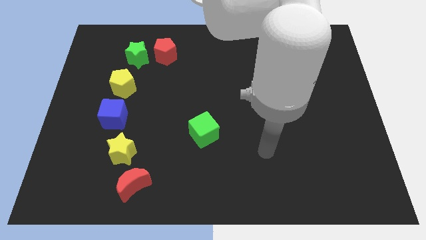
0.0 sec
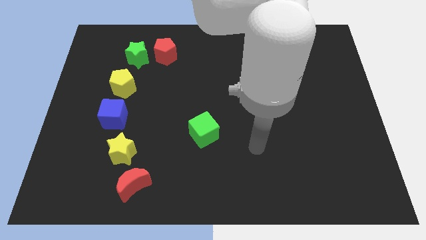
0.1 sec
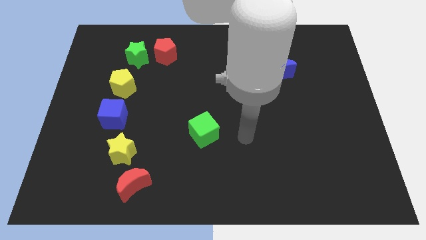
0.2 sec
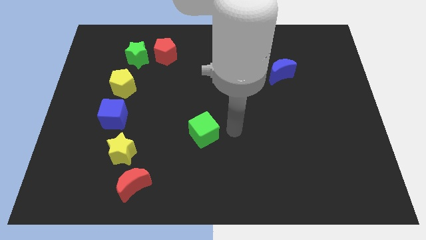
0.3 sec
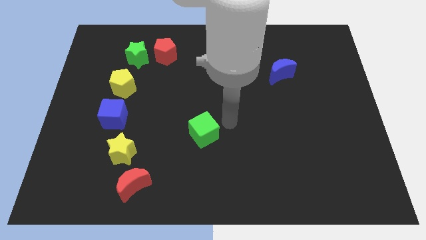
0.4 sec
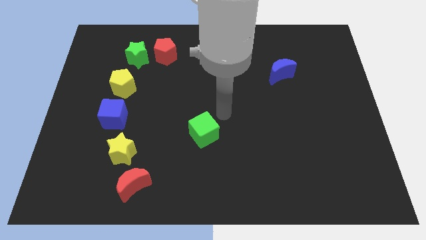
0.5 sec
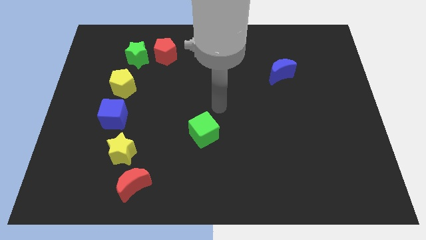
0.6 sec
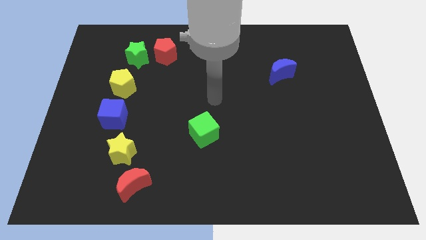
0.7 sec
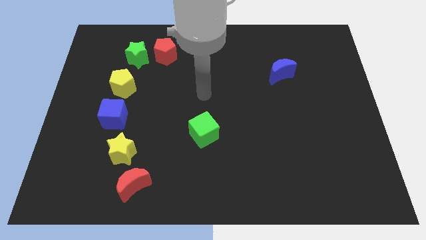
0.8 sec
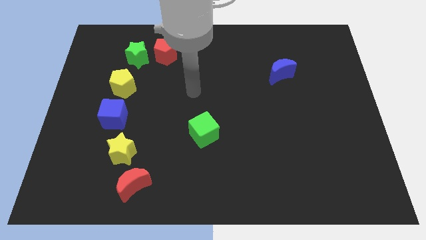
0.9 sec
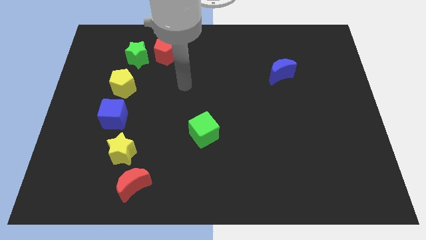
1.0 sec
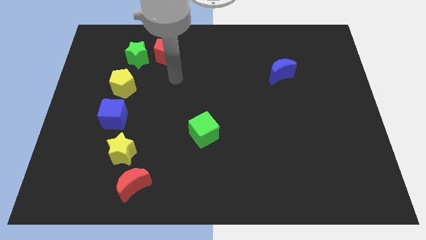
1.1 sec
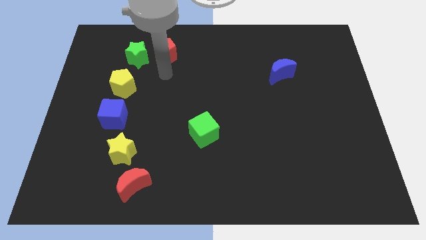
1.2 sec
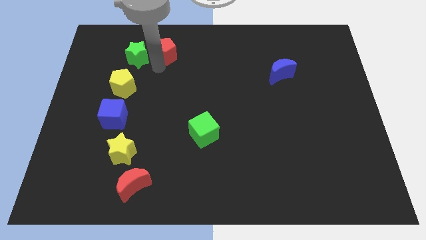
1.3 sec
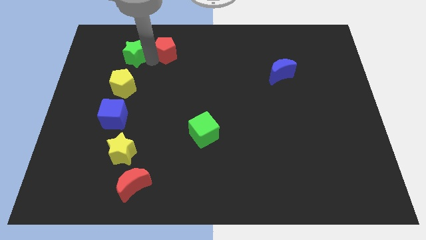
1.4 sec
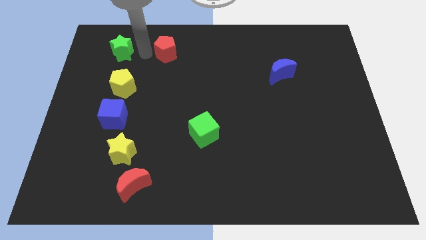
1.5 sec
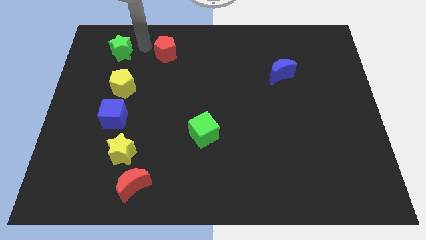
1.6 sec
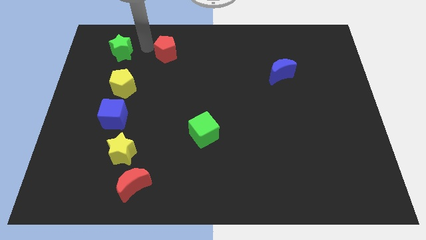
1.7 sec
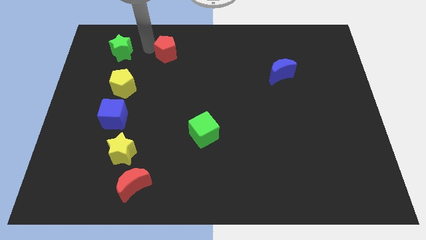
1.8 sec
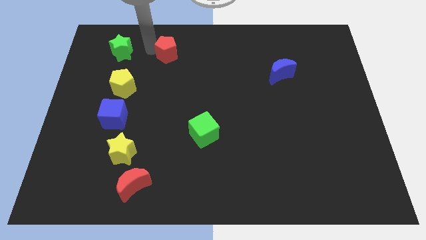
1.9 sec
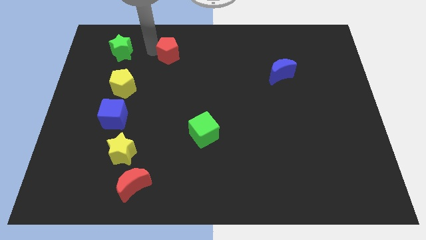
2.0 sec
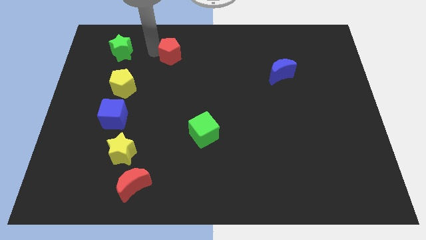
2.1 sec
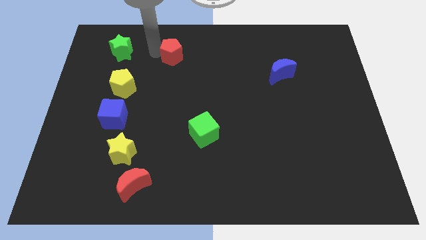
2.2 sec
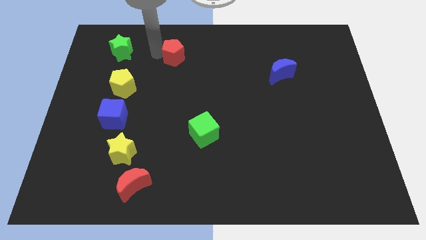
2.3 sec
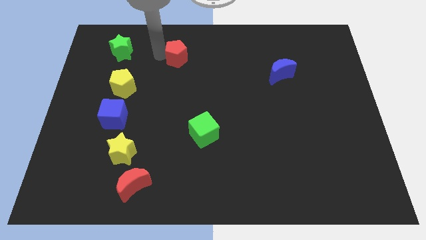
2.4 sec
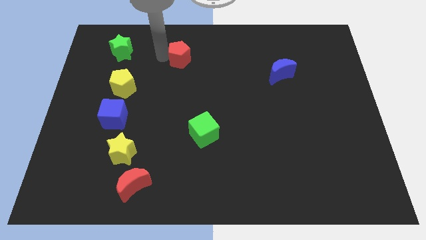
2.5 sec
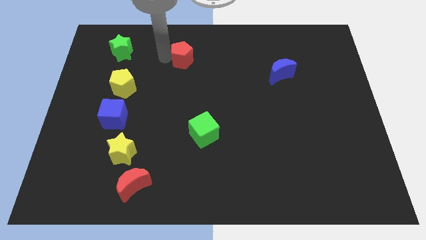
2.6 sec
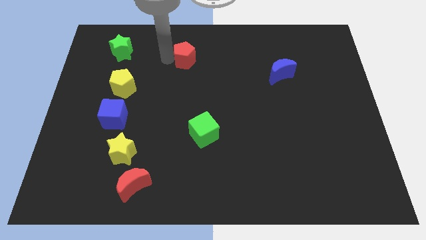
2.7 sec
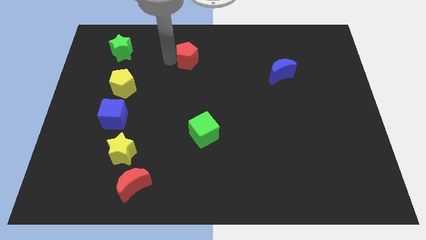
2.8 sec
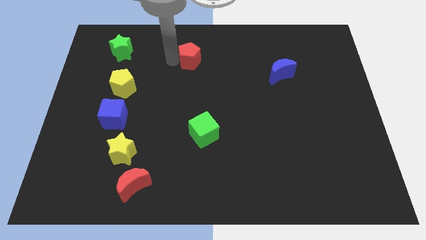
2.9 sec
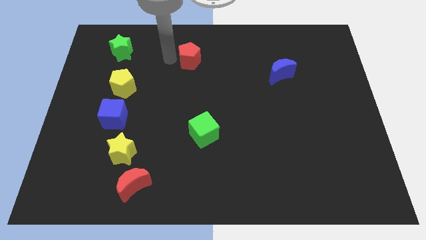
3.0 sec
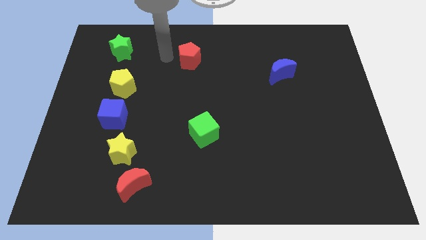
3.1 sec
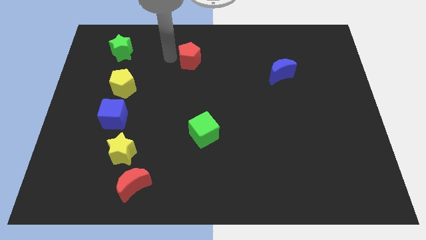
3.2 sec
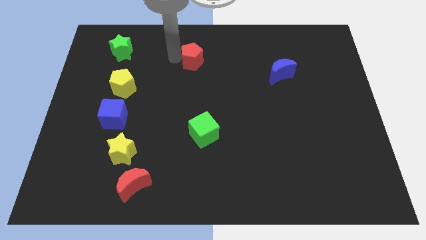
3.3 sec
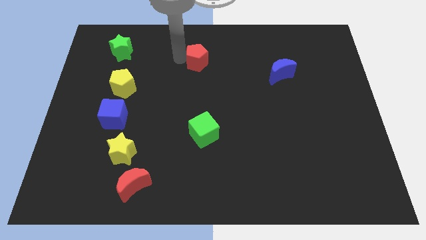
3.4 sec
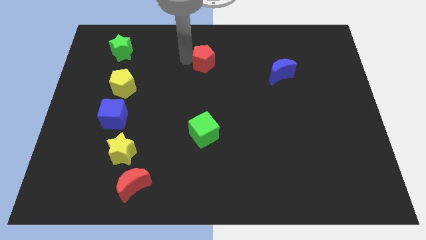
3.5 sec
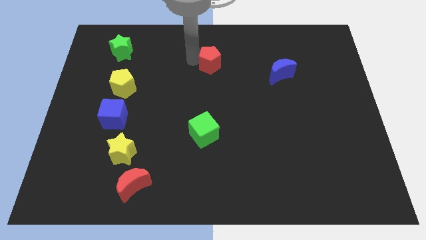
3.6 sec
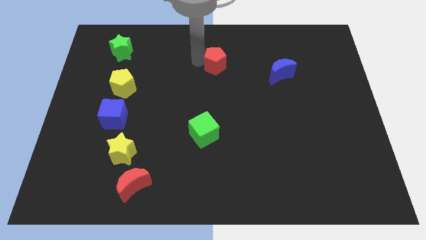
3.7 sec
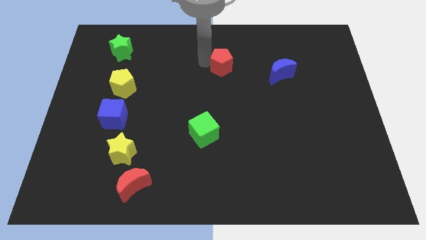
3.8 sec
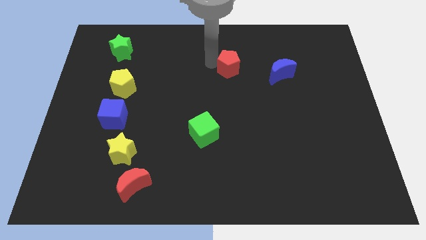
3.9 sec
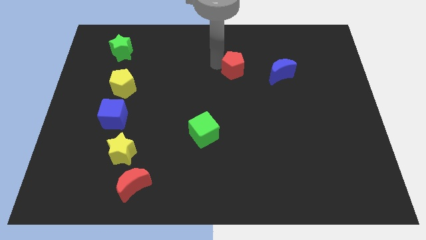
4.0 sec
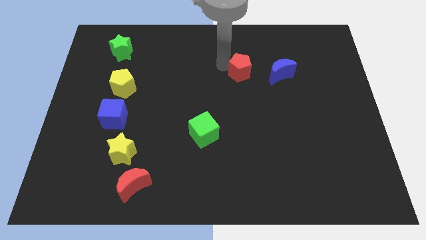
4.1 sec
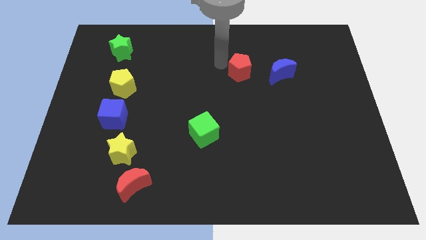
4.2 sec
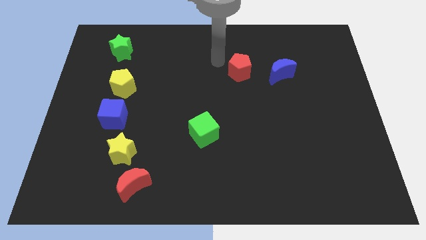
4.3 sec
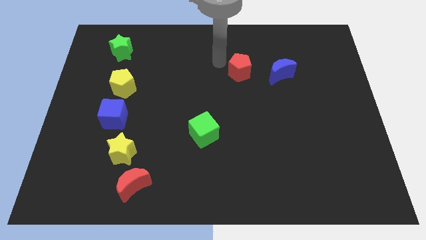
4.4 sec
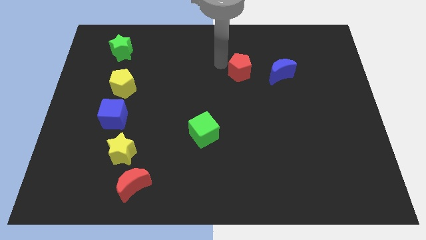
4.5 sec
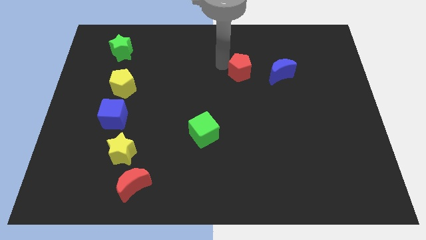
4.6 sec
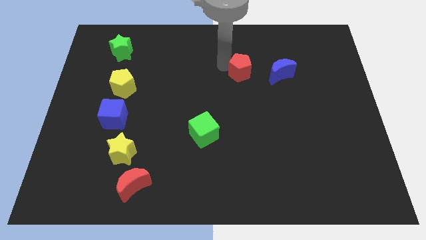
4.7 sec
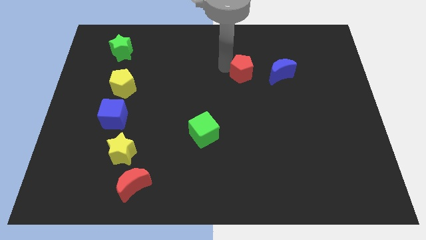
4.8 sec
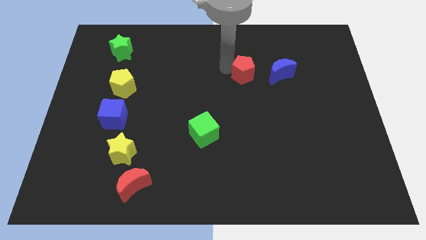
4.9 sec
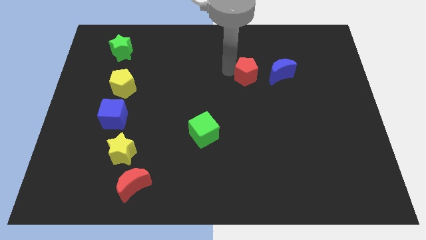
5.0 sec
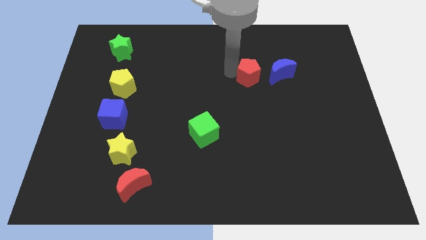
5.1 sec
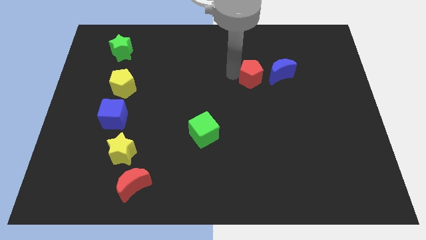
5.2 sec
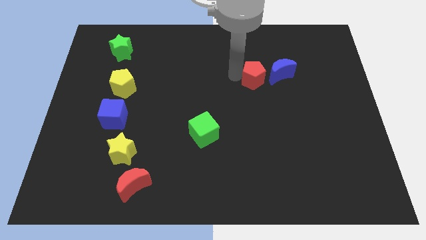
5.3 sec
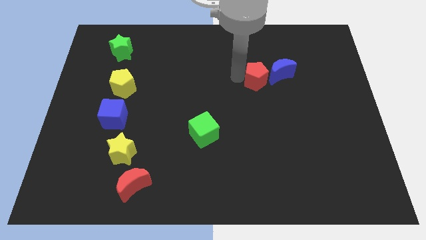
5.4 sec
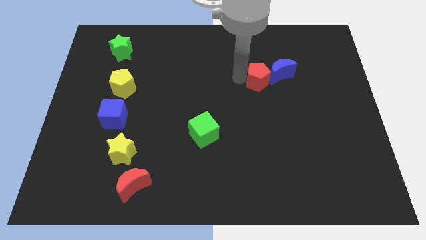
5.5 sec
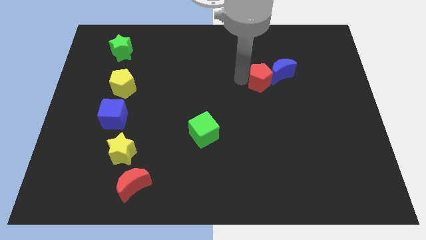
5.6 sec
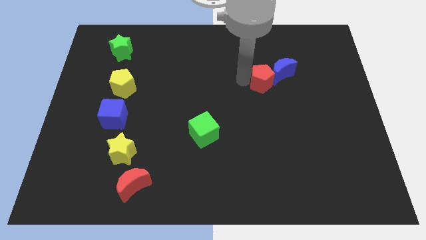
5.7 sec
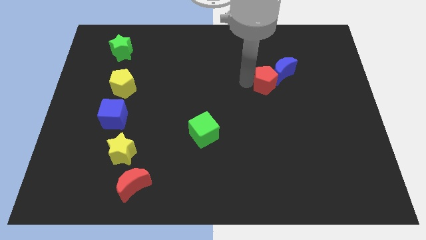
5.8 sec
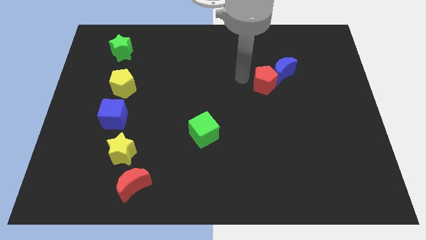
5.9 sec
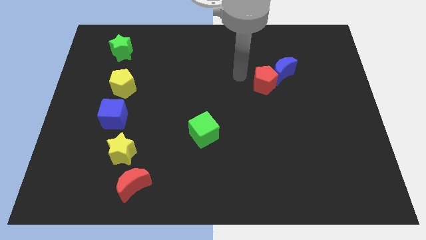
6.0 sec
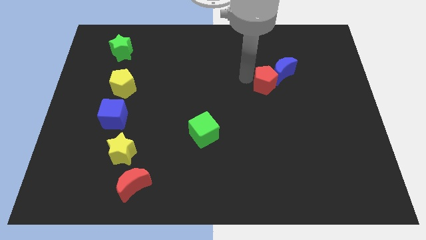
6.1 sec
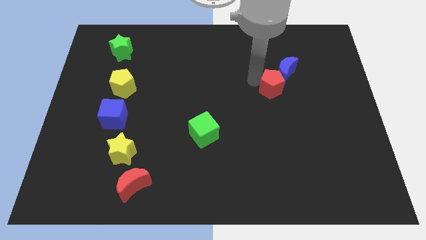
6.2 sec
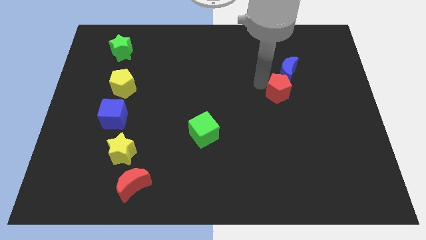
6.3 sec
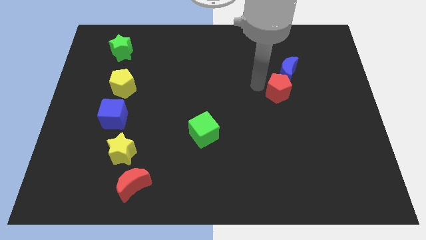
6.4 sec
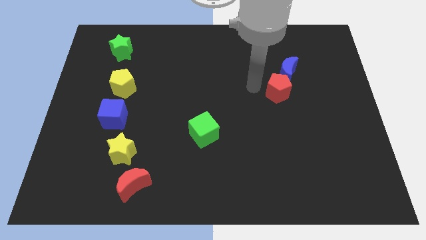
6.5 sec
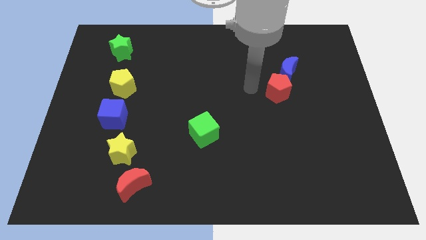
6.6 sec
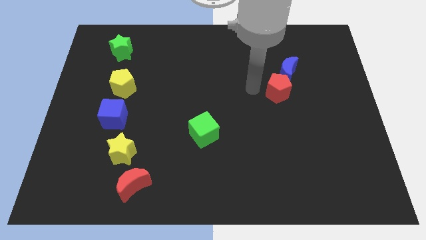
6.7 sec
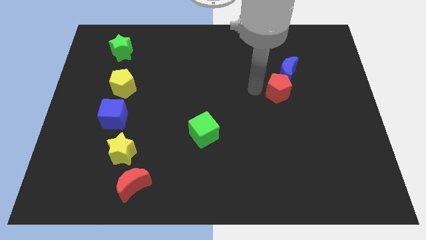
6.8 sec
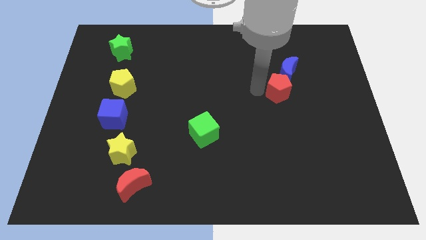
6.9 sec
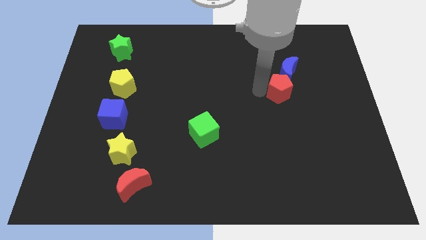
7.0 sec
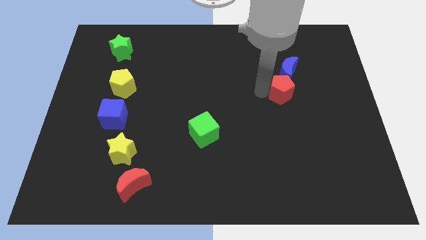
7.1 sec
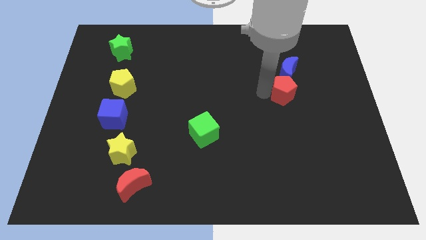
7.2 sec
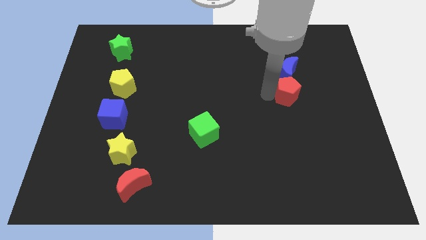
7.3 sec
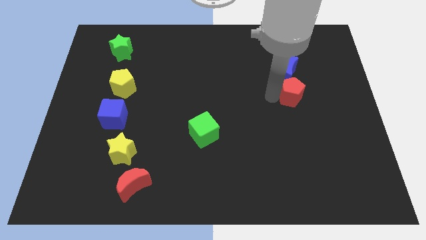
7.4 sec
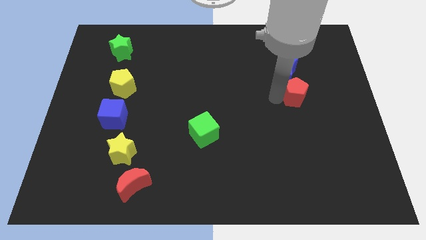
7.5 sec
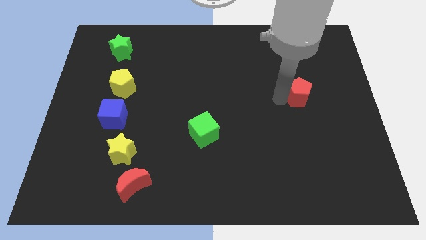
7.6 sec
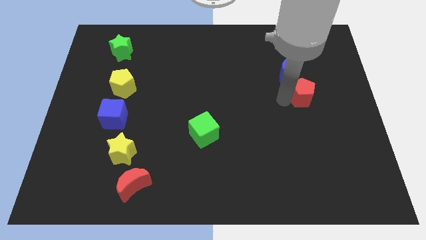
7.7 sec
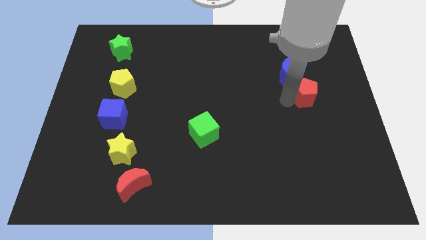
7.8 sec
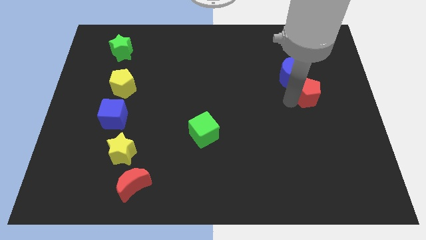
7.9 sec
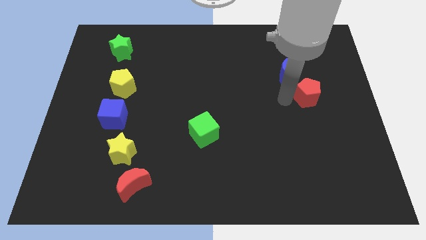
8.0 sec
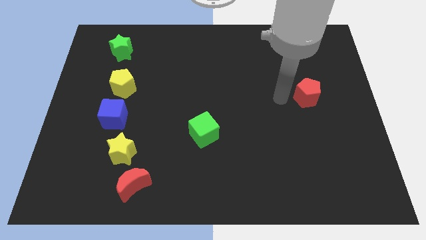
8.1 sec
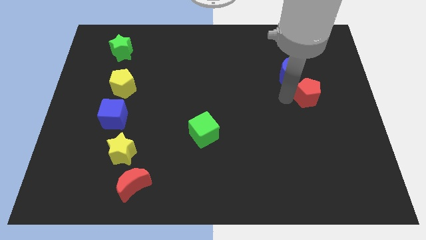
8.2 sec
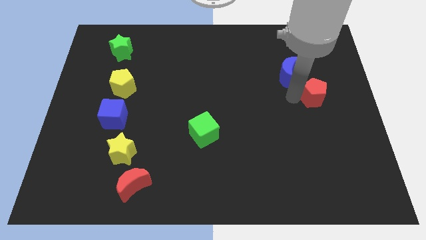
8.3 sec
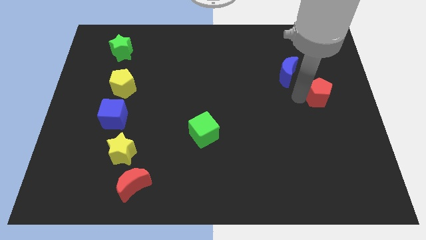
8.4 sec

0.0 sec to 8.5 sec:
put the red pentagon to the center right
